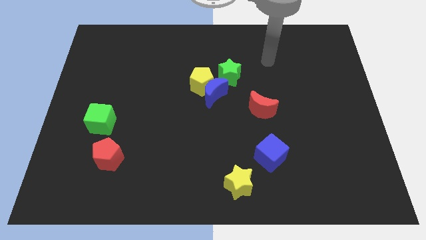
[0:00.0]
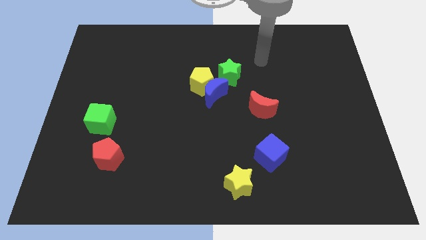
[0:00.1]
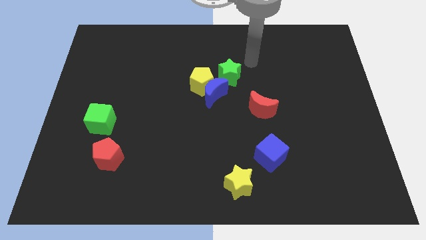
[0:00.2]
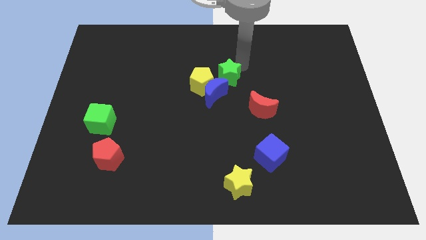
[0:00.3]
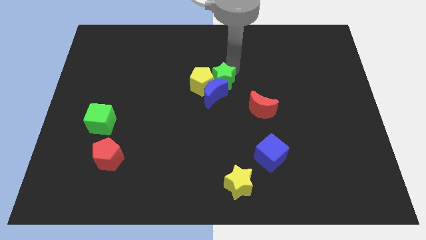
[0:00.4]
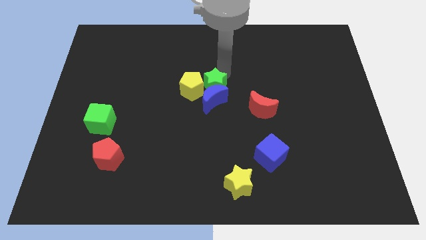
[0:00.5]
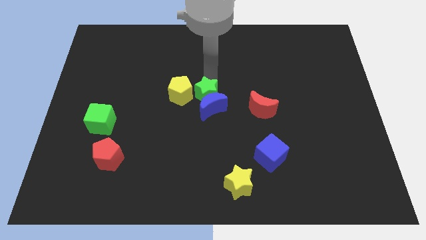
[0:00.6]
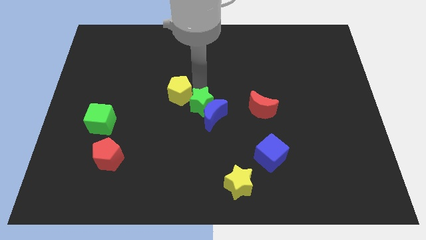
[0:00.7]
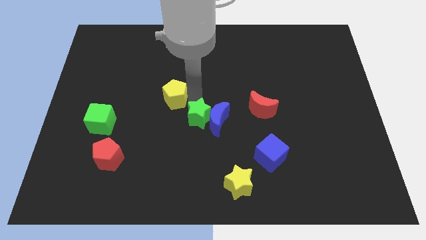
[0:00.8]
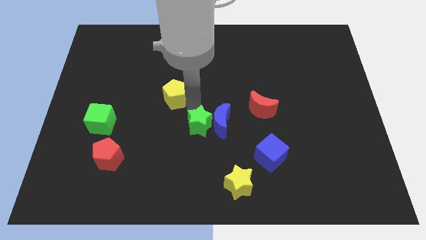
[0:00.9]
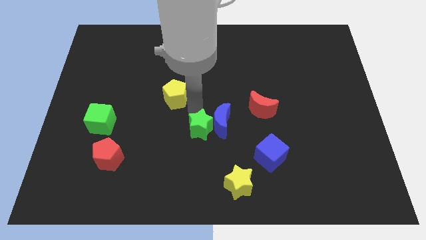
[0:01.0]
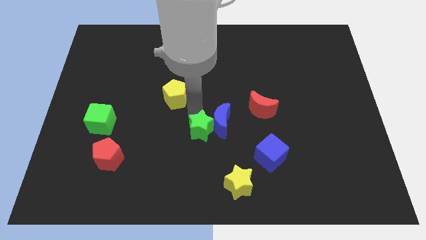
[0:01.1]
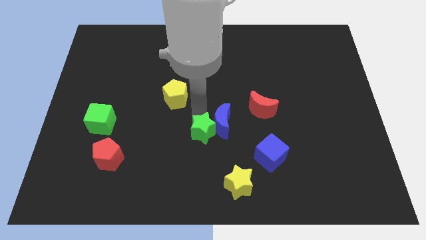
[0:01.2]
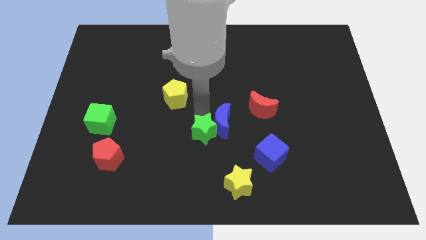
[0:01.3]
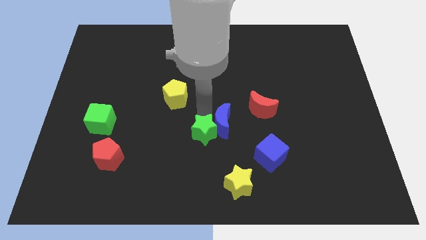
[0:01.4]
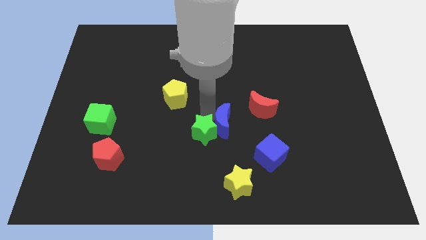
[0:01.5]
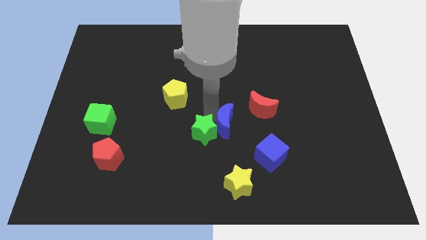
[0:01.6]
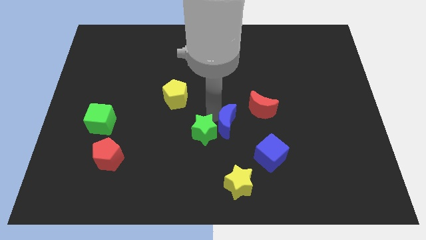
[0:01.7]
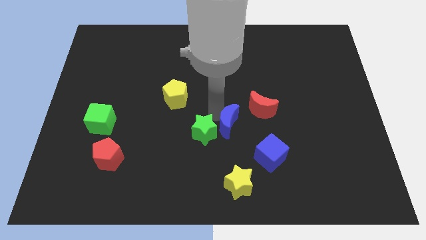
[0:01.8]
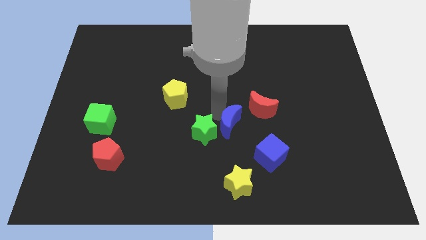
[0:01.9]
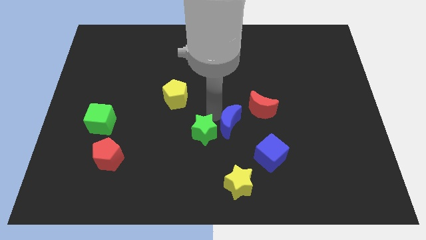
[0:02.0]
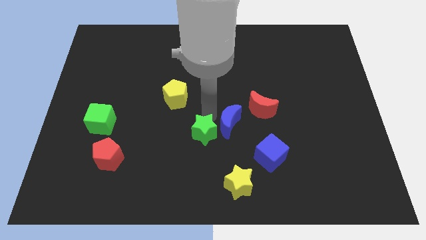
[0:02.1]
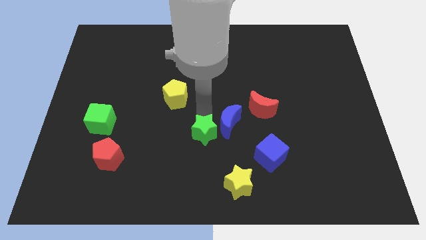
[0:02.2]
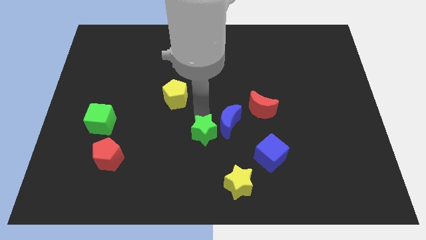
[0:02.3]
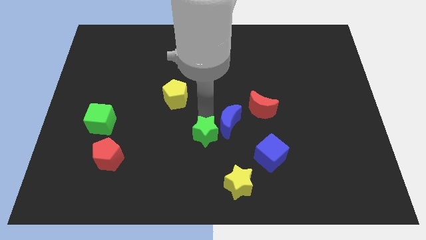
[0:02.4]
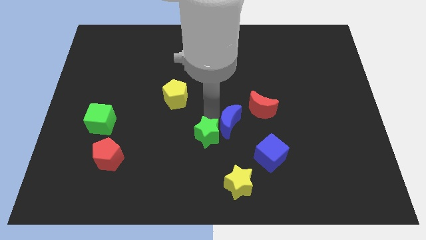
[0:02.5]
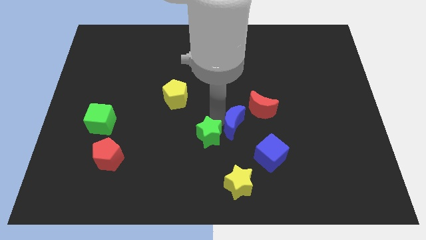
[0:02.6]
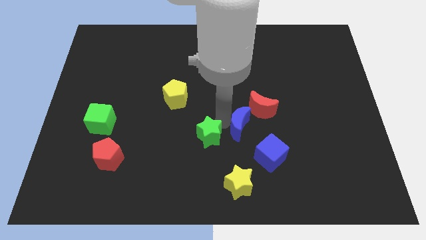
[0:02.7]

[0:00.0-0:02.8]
pull the blue moon apart from the yellow pentagon and green star

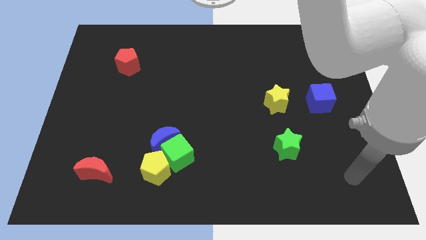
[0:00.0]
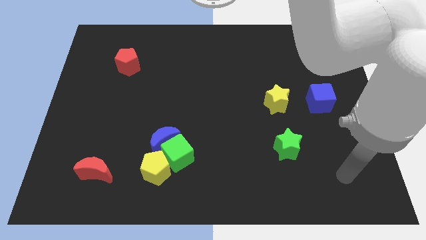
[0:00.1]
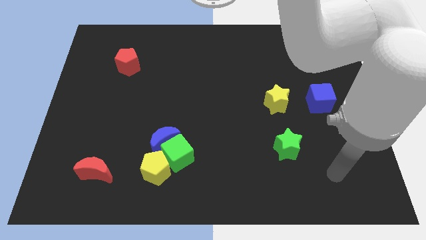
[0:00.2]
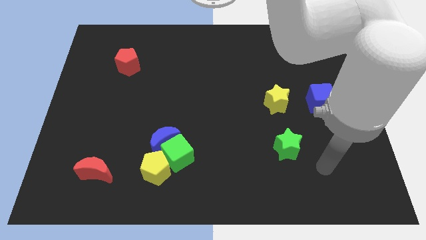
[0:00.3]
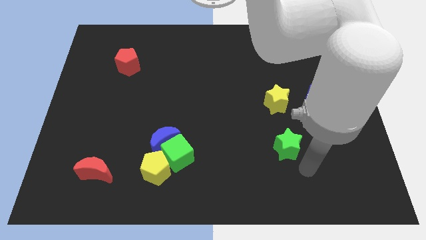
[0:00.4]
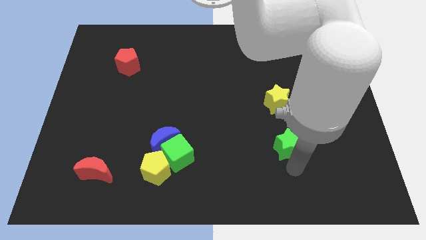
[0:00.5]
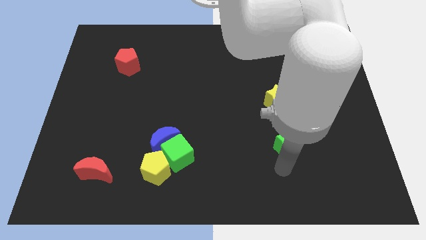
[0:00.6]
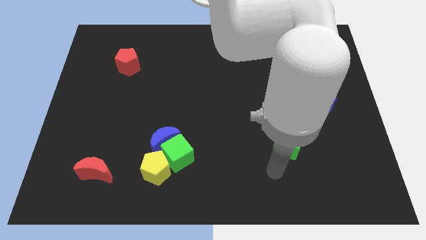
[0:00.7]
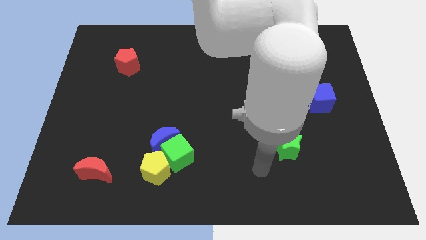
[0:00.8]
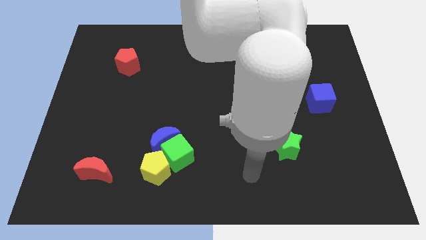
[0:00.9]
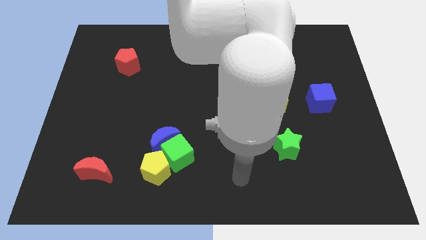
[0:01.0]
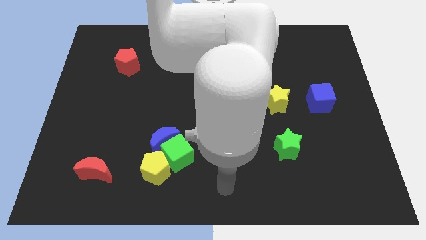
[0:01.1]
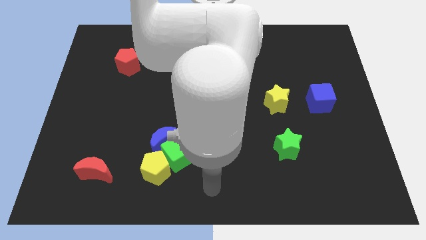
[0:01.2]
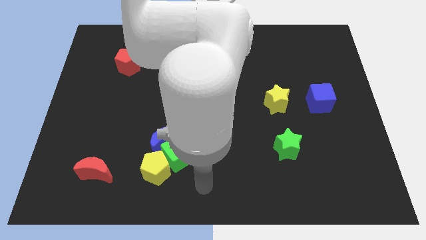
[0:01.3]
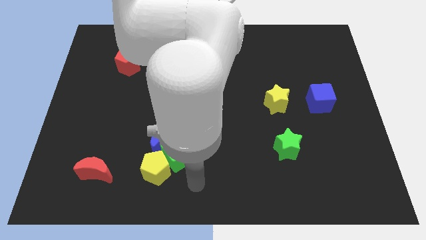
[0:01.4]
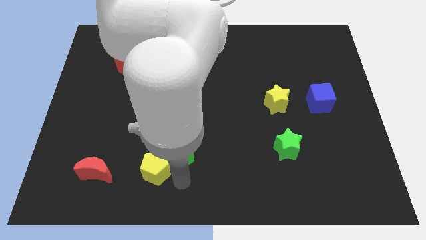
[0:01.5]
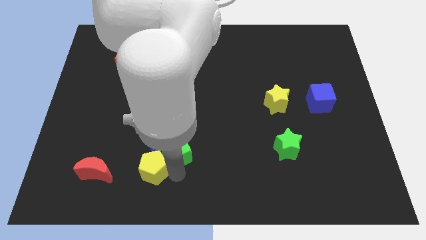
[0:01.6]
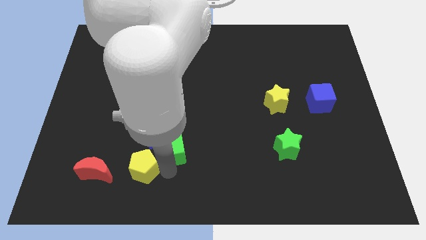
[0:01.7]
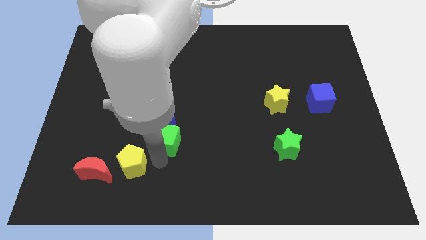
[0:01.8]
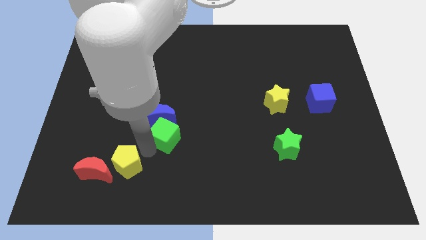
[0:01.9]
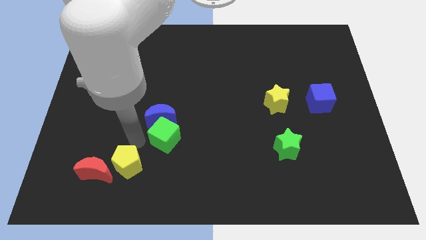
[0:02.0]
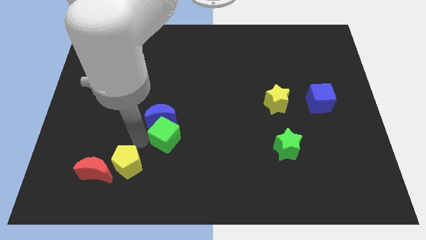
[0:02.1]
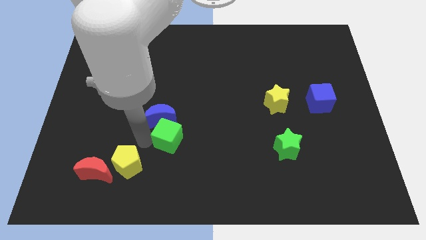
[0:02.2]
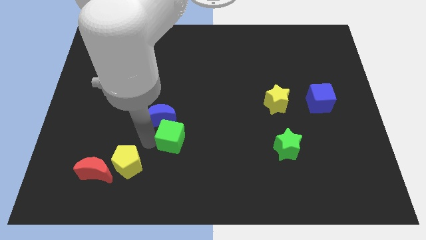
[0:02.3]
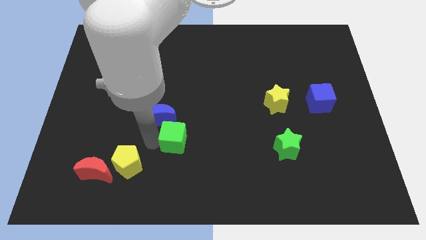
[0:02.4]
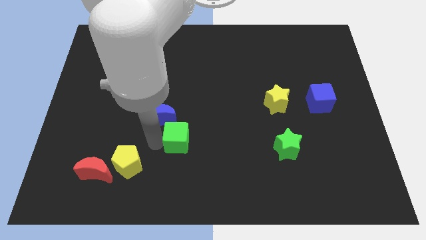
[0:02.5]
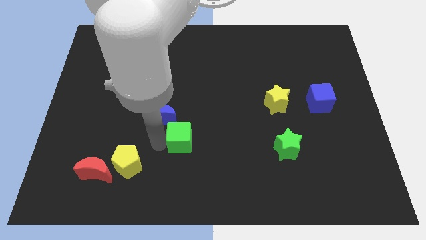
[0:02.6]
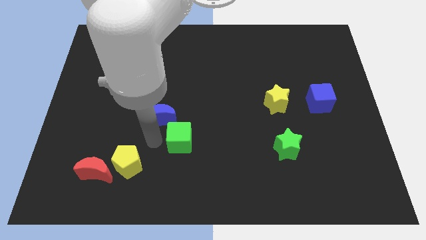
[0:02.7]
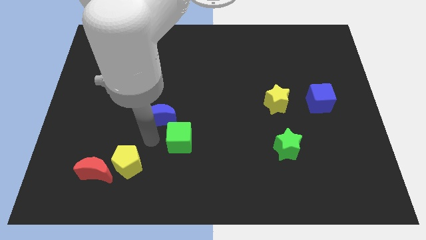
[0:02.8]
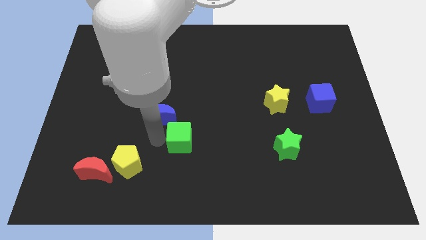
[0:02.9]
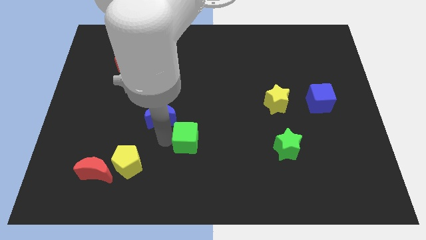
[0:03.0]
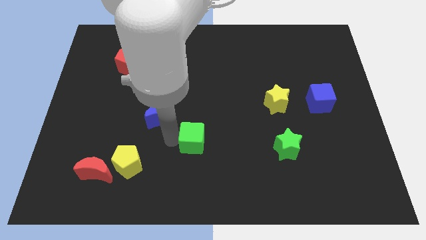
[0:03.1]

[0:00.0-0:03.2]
separate the green cube from the blue moon and yellow pentagon

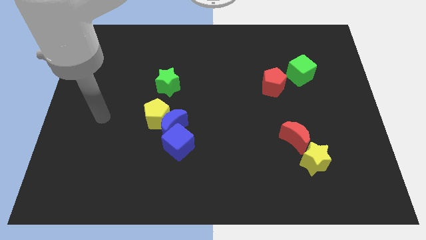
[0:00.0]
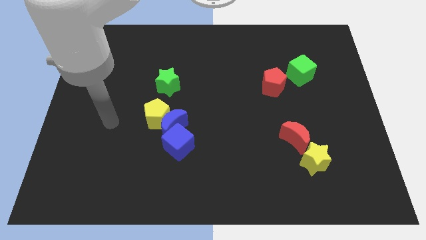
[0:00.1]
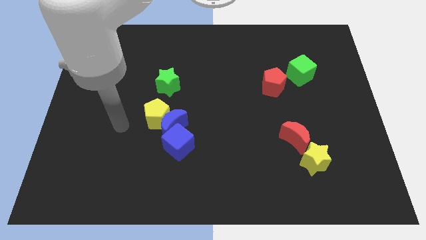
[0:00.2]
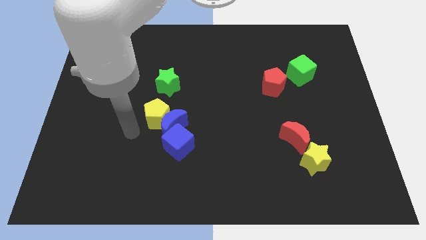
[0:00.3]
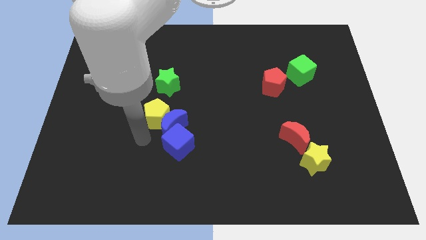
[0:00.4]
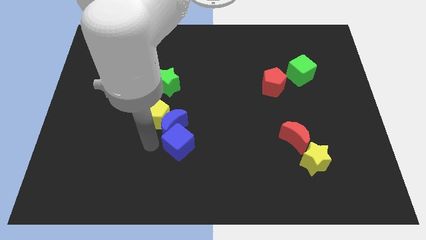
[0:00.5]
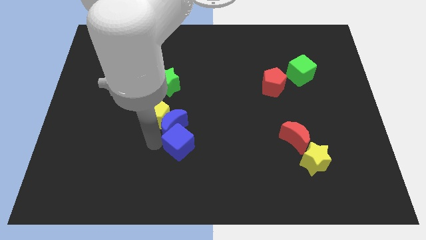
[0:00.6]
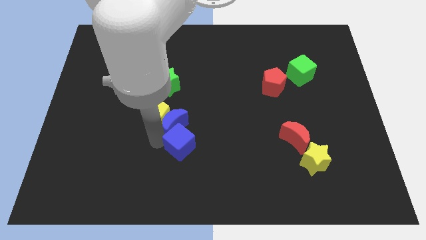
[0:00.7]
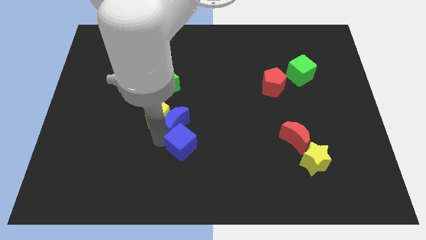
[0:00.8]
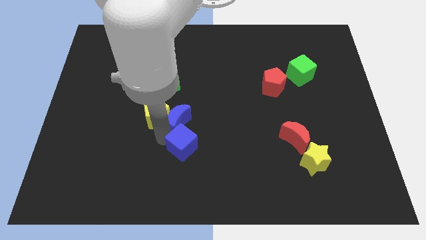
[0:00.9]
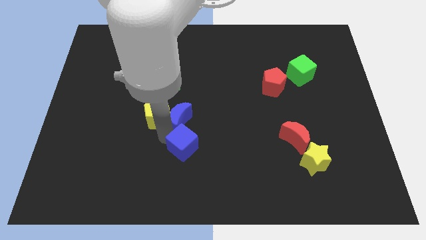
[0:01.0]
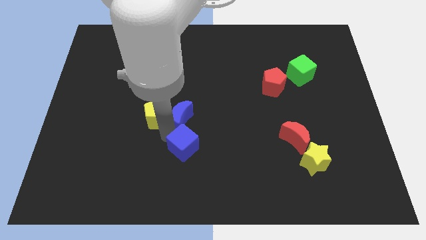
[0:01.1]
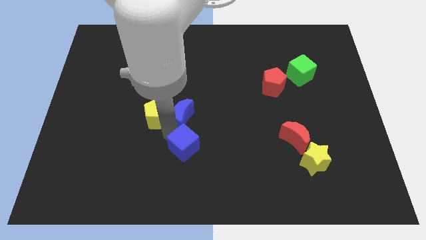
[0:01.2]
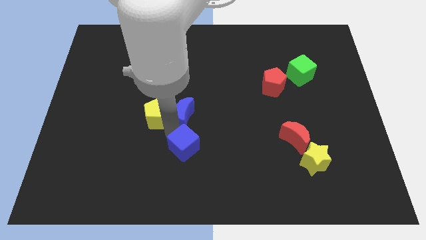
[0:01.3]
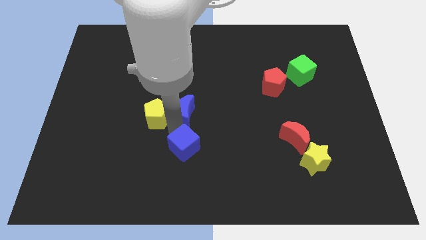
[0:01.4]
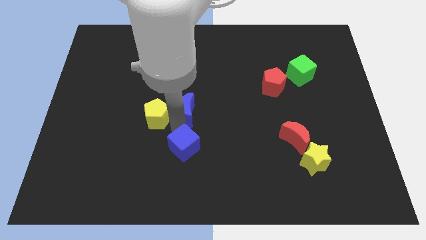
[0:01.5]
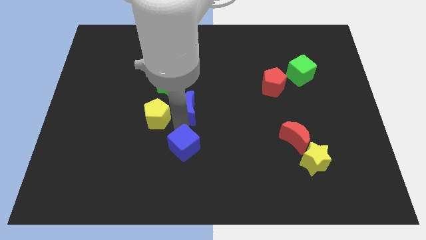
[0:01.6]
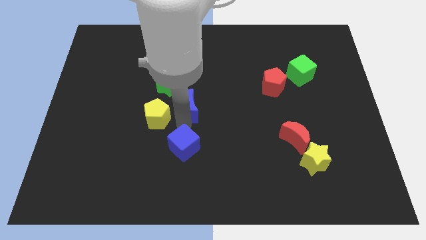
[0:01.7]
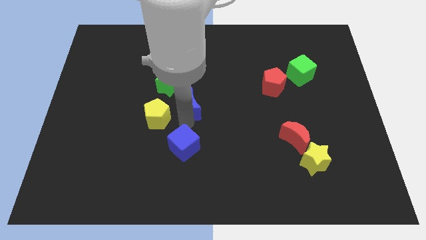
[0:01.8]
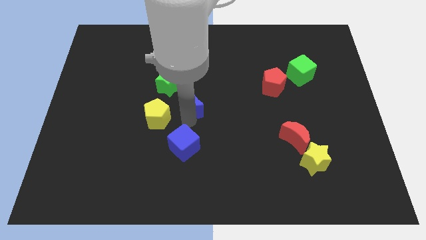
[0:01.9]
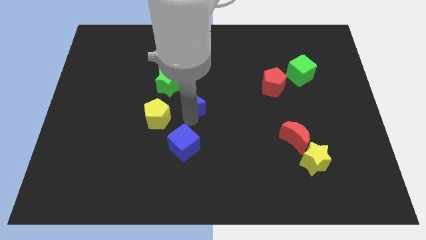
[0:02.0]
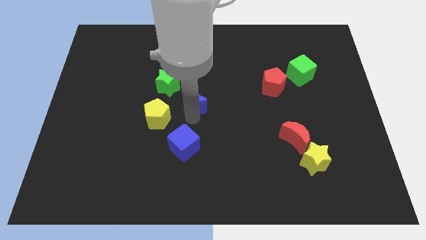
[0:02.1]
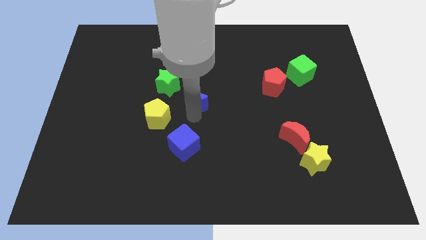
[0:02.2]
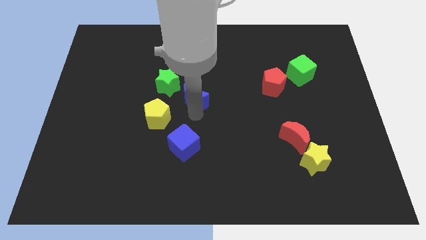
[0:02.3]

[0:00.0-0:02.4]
separate the blue moon from the yellow pentagon and blue cube

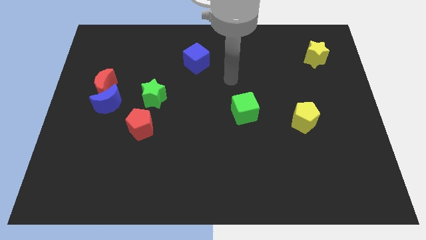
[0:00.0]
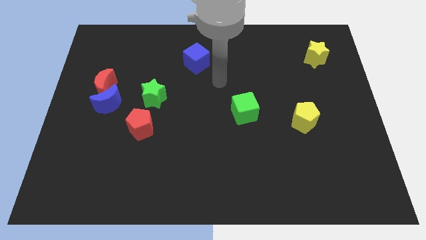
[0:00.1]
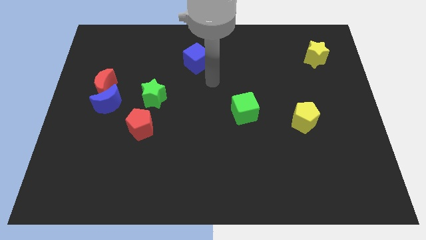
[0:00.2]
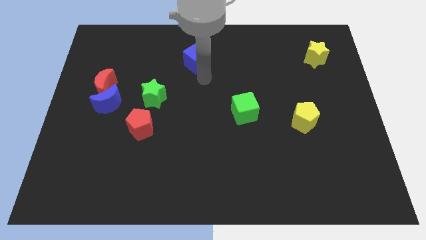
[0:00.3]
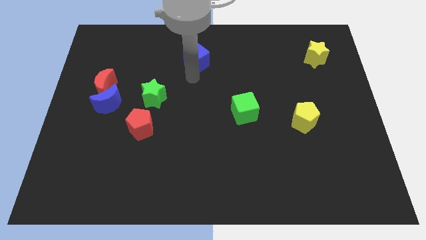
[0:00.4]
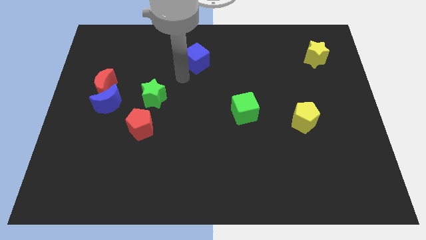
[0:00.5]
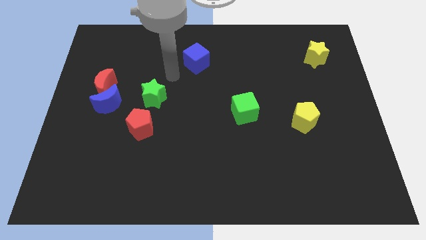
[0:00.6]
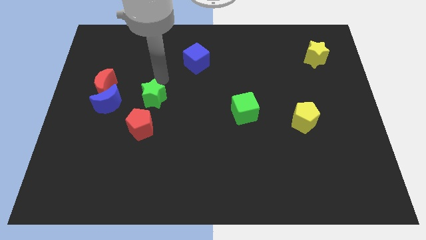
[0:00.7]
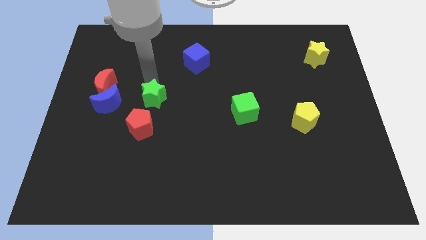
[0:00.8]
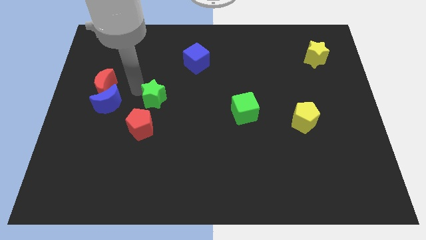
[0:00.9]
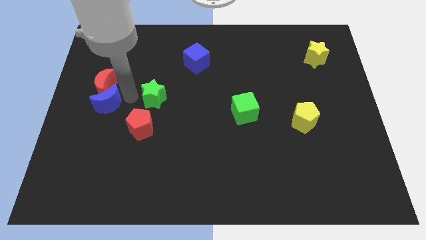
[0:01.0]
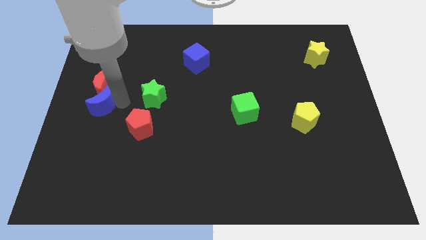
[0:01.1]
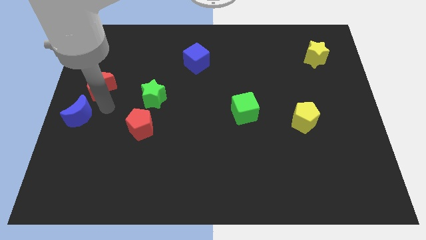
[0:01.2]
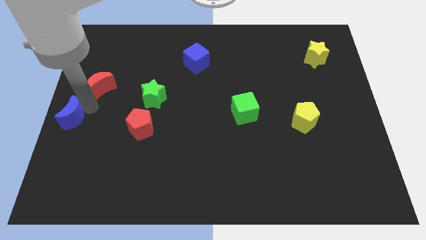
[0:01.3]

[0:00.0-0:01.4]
move the red moon away from the blue moon
